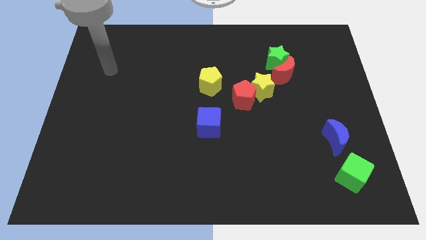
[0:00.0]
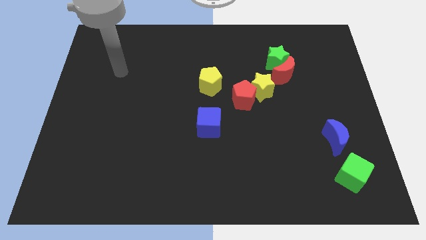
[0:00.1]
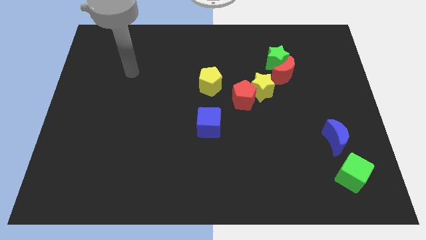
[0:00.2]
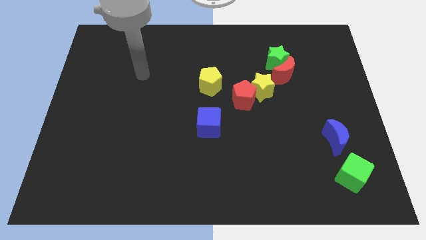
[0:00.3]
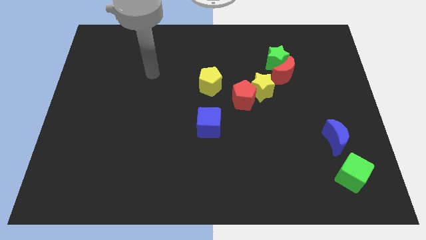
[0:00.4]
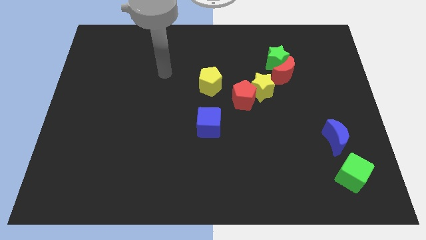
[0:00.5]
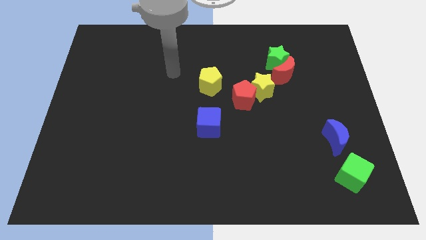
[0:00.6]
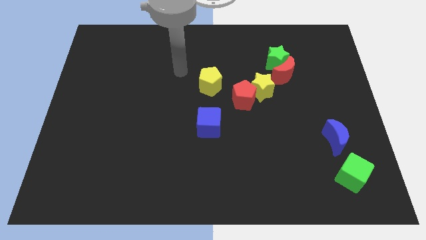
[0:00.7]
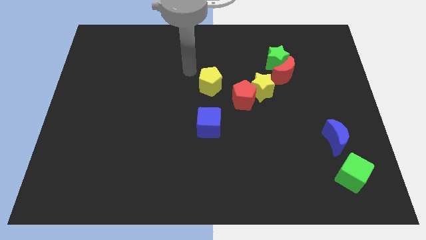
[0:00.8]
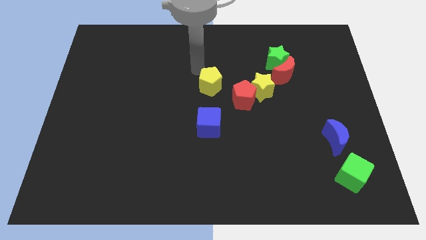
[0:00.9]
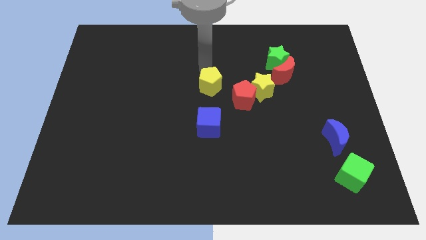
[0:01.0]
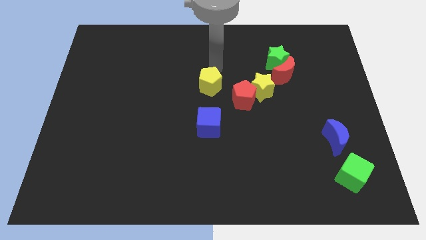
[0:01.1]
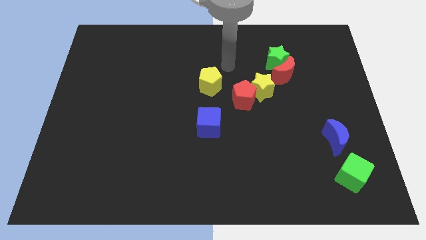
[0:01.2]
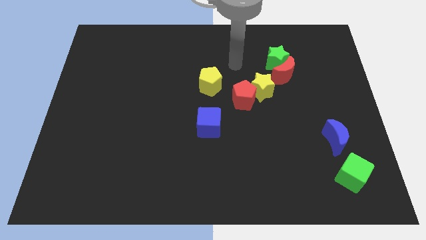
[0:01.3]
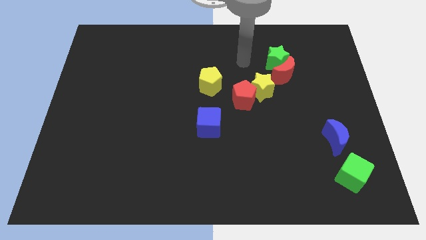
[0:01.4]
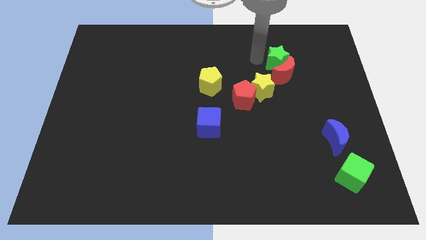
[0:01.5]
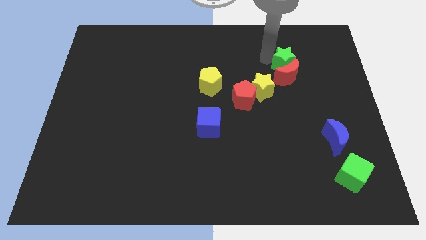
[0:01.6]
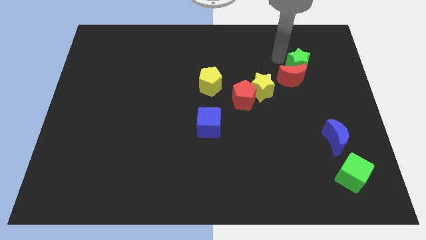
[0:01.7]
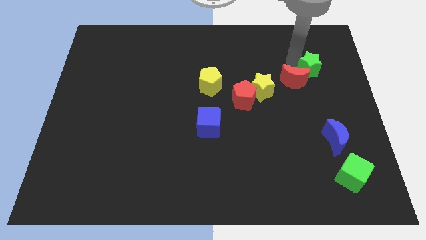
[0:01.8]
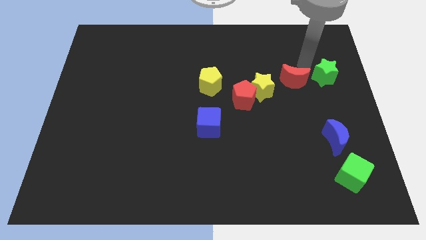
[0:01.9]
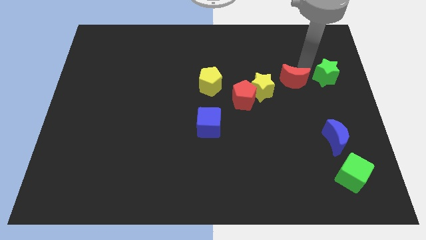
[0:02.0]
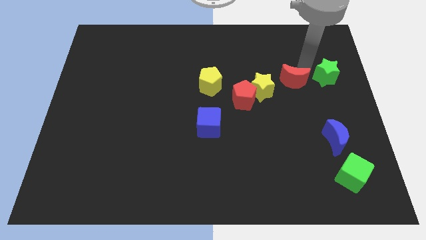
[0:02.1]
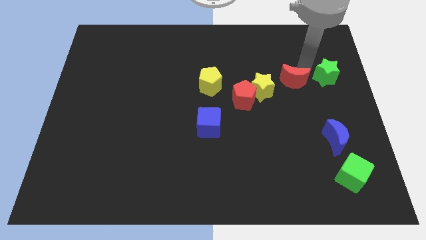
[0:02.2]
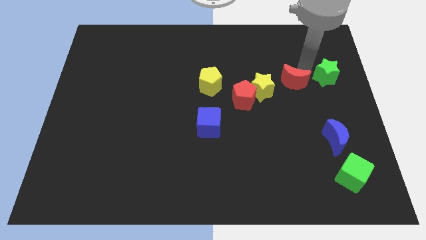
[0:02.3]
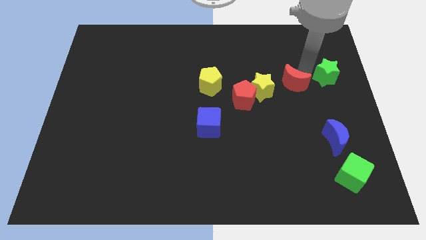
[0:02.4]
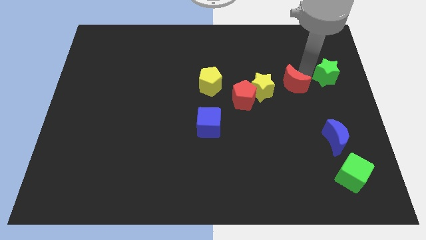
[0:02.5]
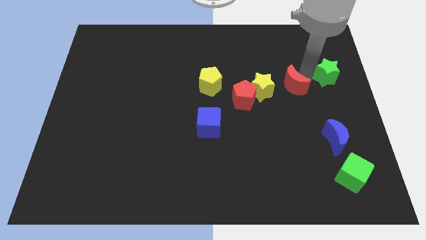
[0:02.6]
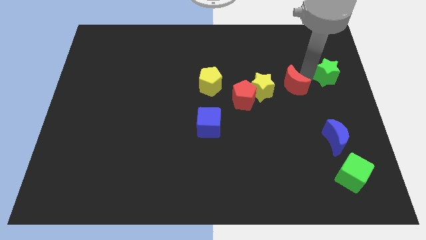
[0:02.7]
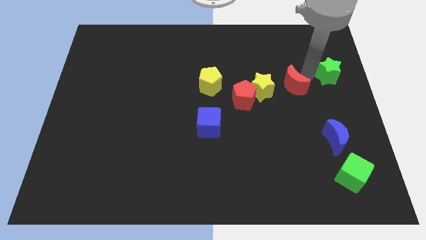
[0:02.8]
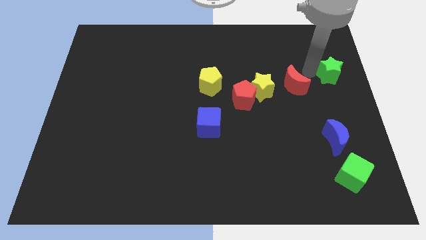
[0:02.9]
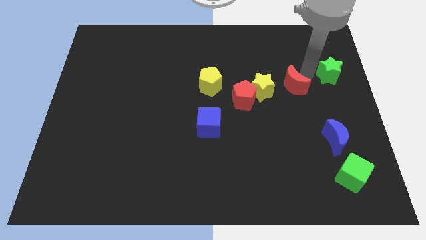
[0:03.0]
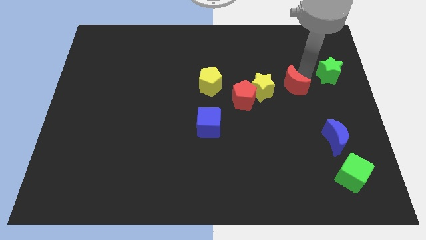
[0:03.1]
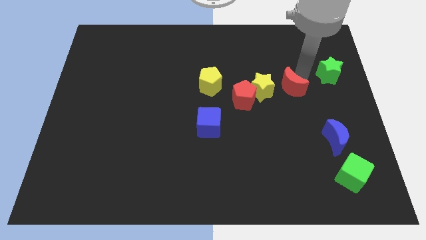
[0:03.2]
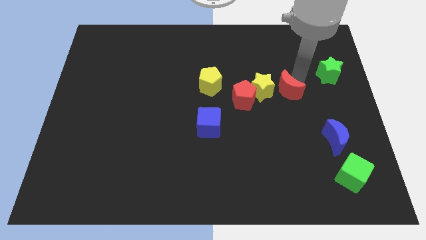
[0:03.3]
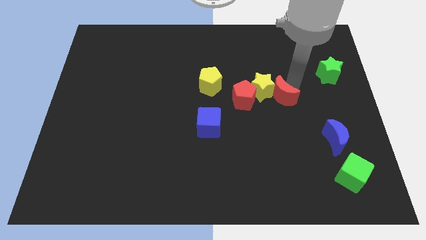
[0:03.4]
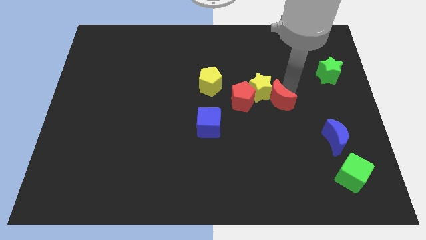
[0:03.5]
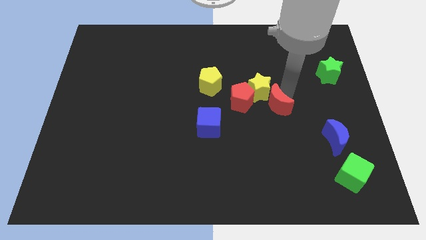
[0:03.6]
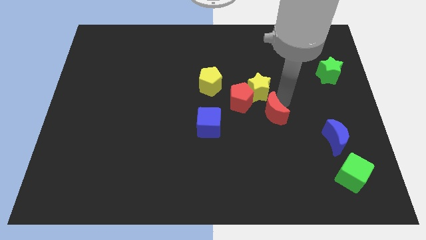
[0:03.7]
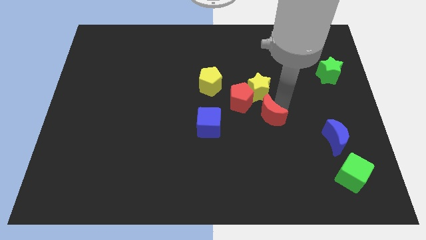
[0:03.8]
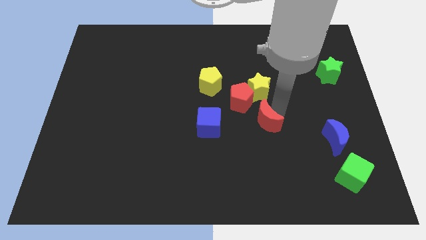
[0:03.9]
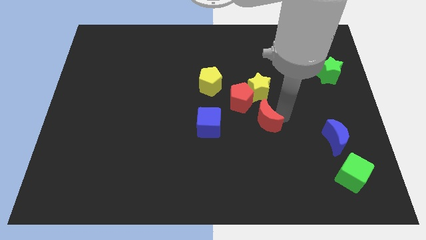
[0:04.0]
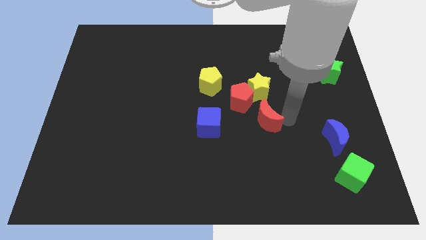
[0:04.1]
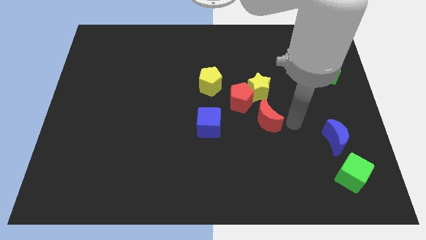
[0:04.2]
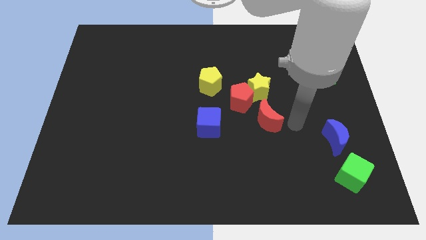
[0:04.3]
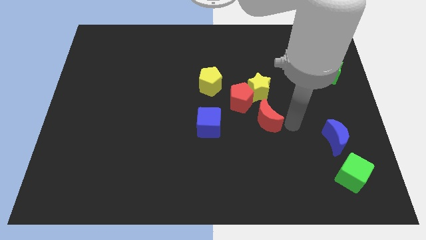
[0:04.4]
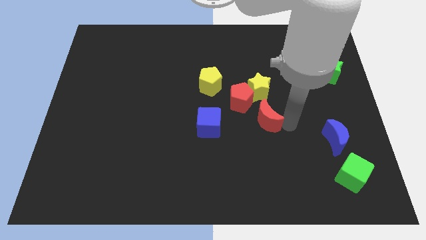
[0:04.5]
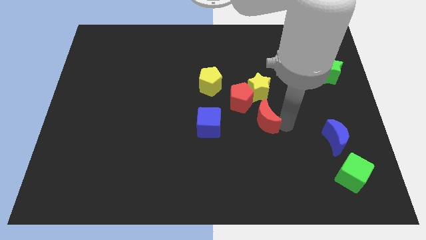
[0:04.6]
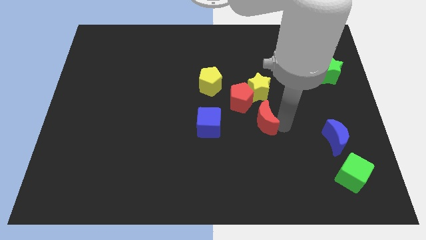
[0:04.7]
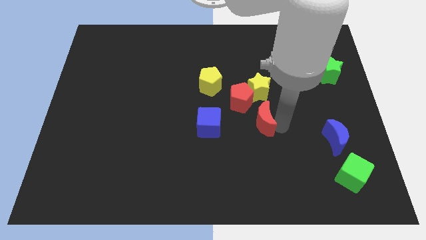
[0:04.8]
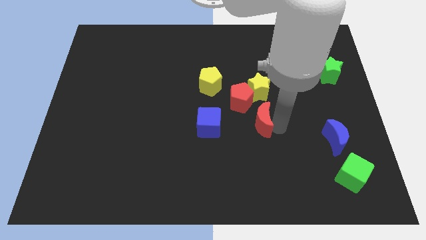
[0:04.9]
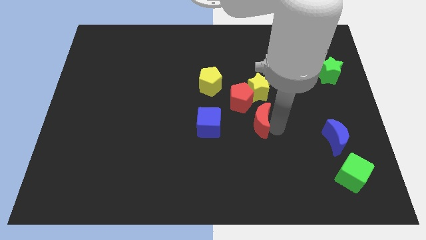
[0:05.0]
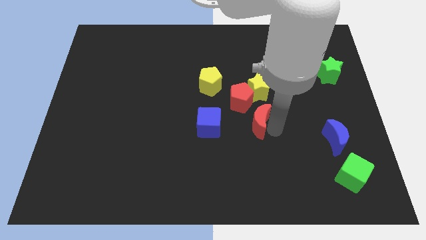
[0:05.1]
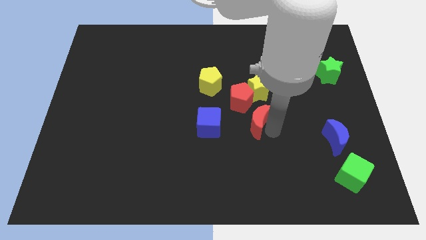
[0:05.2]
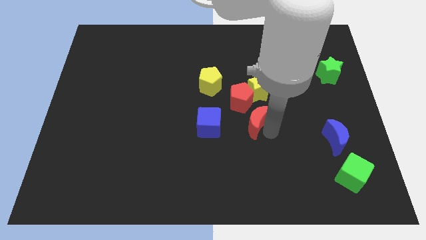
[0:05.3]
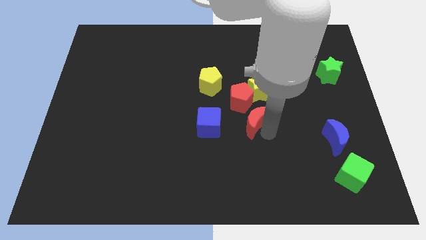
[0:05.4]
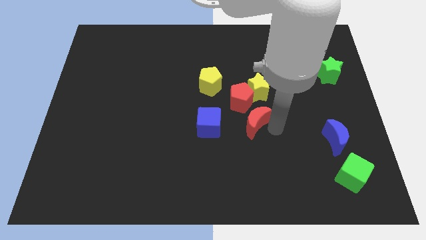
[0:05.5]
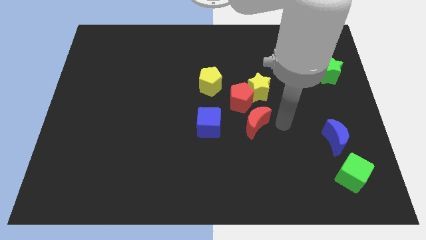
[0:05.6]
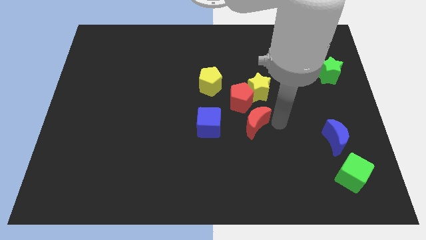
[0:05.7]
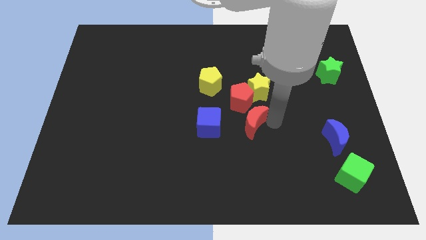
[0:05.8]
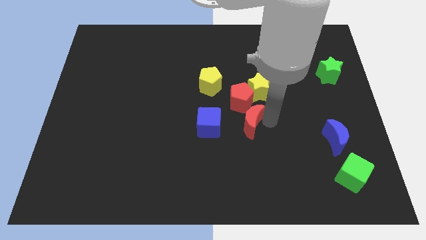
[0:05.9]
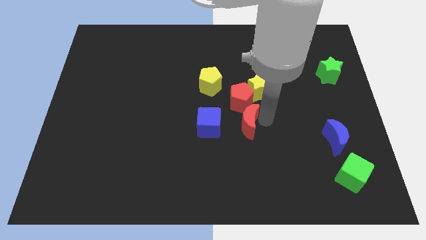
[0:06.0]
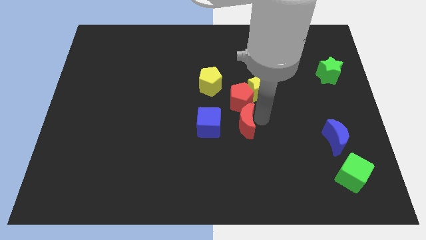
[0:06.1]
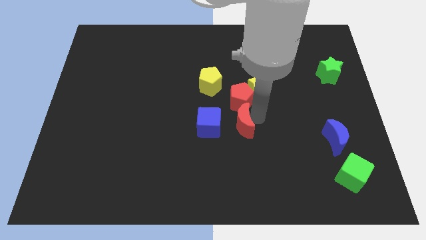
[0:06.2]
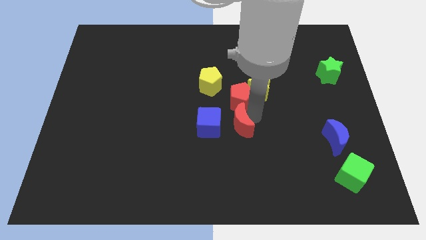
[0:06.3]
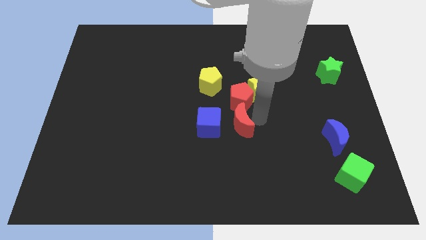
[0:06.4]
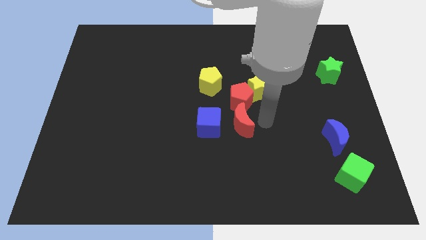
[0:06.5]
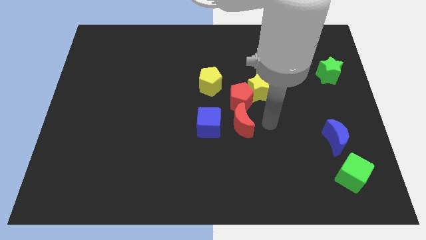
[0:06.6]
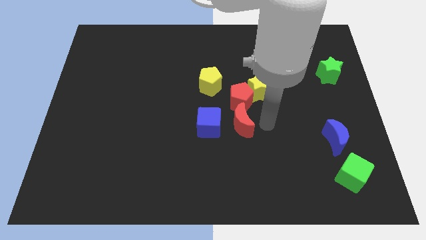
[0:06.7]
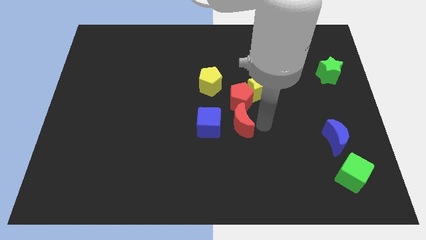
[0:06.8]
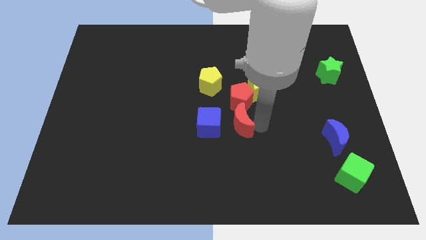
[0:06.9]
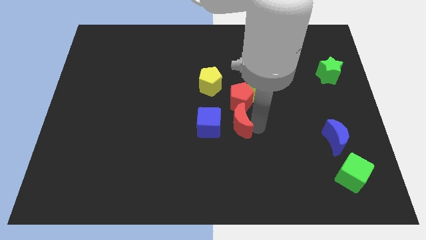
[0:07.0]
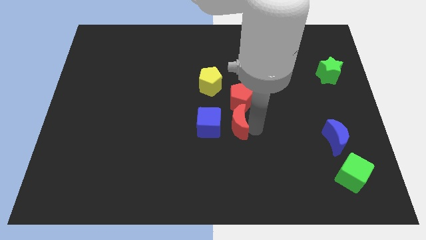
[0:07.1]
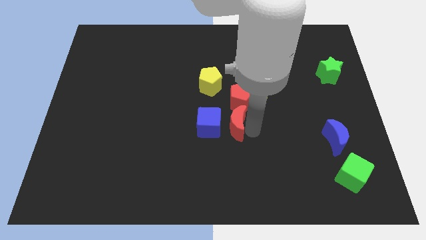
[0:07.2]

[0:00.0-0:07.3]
slide the red moon to the blue cube
